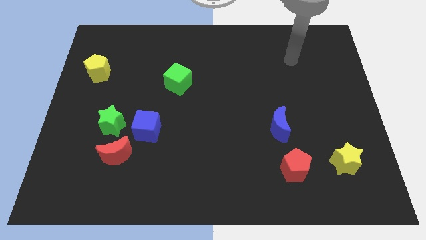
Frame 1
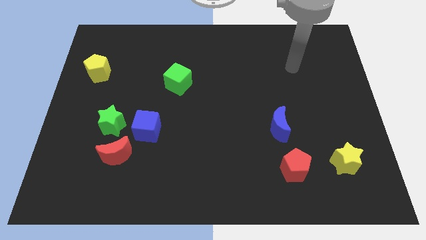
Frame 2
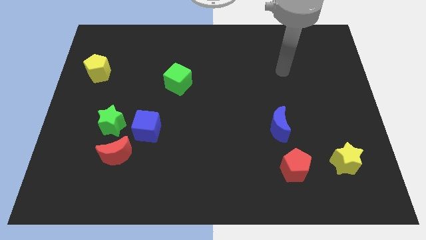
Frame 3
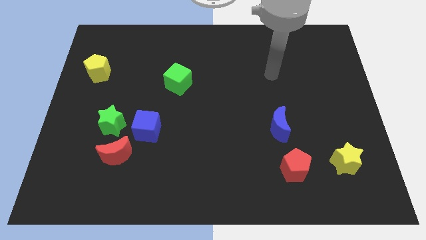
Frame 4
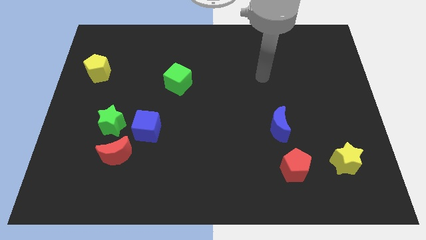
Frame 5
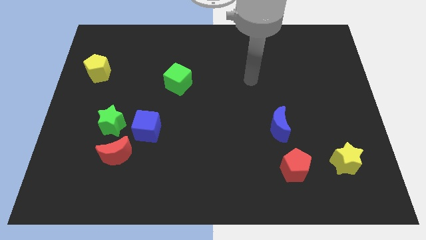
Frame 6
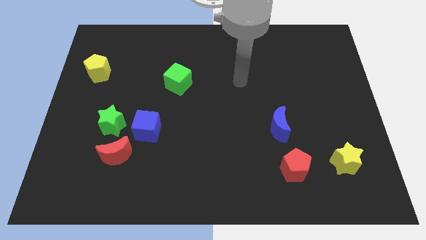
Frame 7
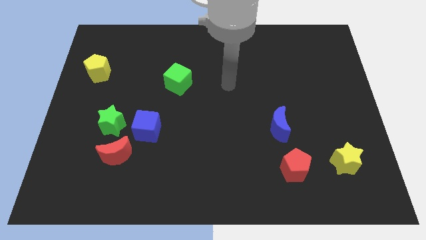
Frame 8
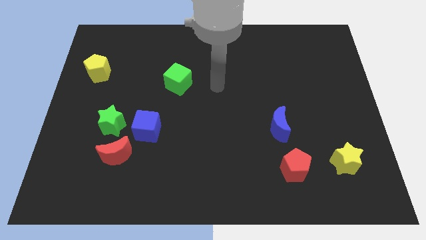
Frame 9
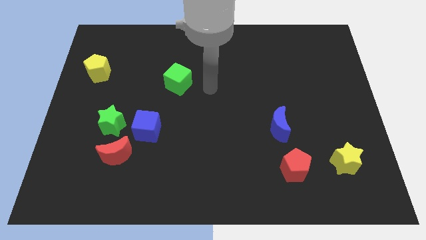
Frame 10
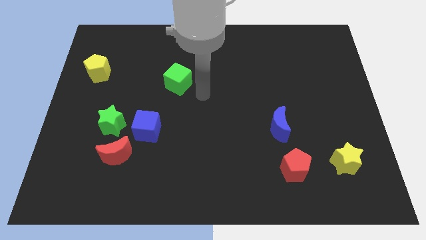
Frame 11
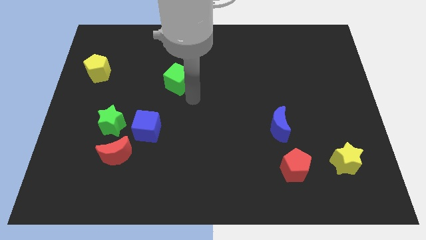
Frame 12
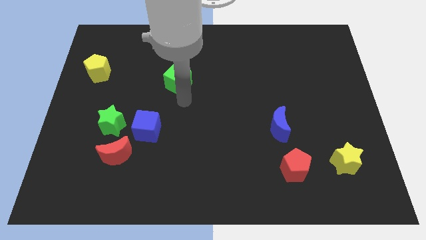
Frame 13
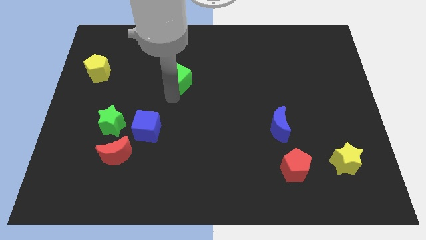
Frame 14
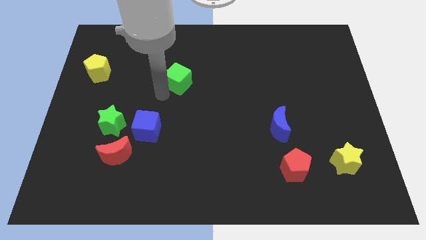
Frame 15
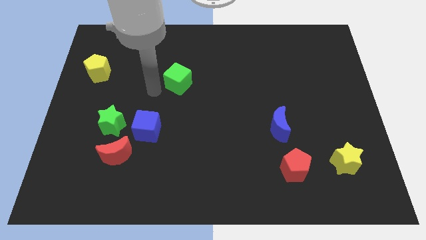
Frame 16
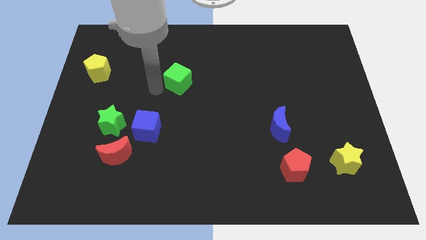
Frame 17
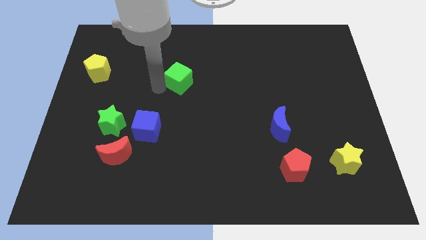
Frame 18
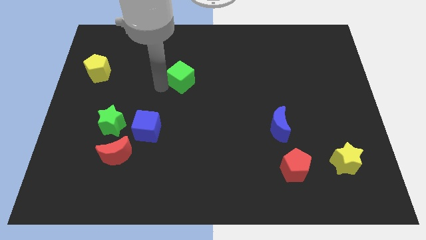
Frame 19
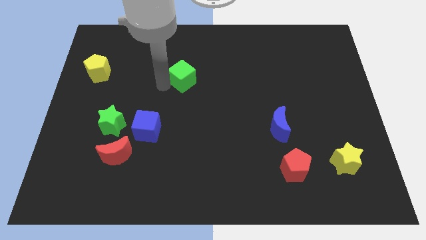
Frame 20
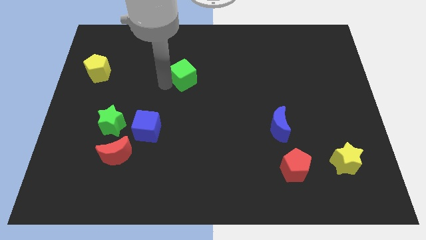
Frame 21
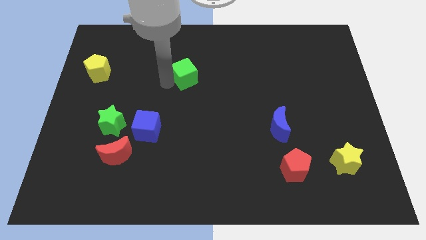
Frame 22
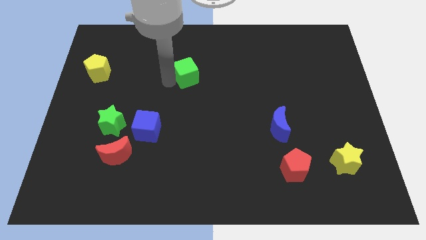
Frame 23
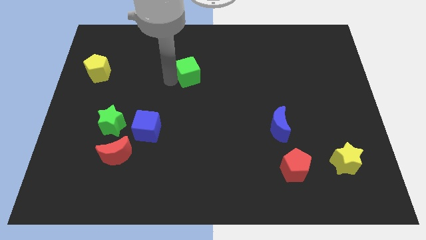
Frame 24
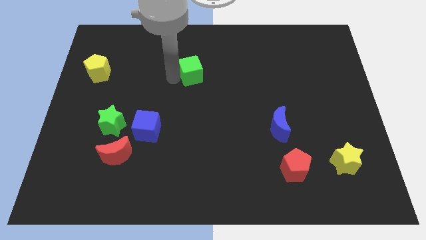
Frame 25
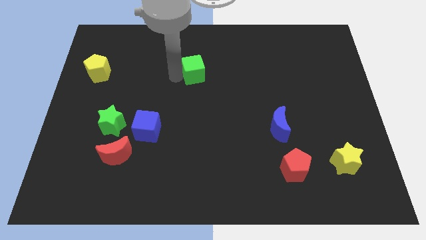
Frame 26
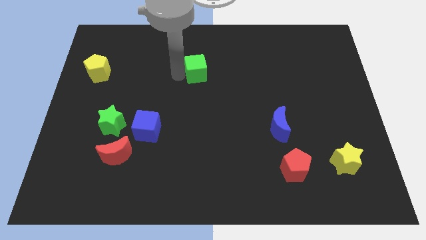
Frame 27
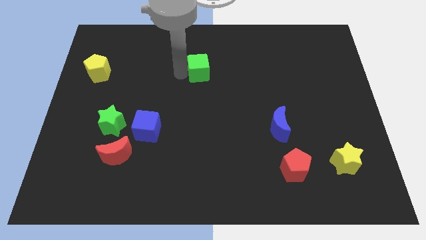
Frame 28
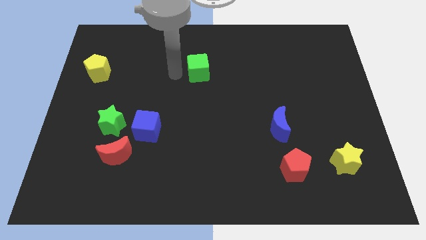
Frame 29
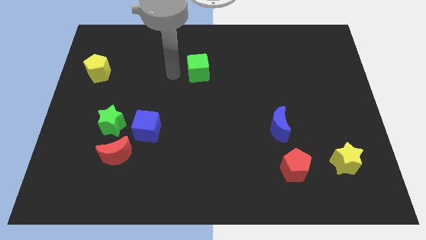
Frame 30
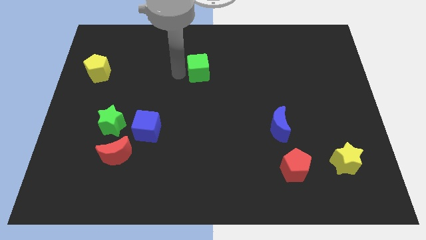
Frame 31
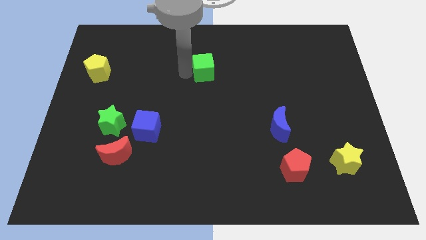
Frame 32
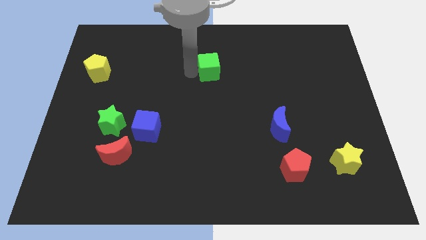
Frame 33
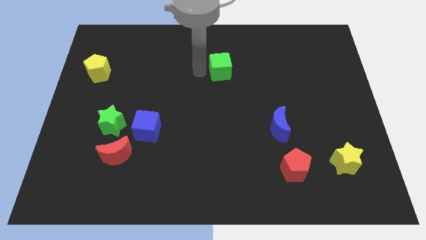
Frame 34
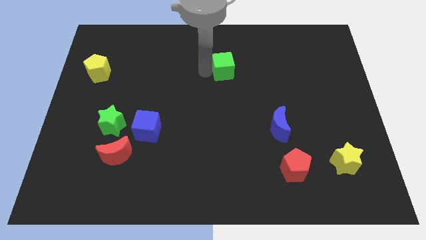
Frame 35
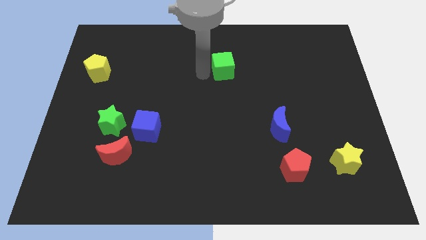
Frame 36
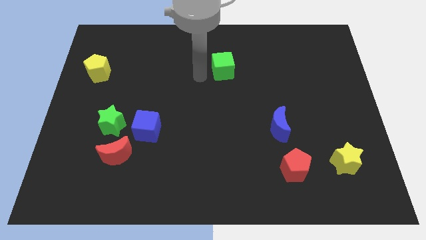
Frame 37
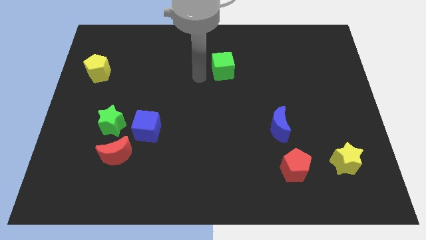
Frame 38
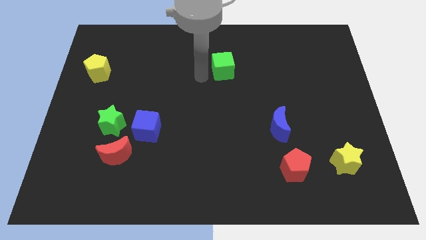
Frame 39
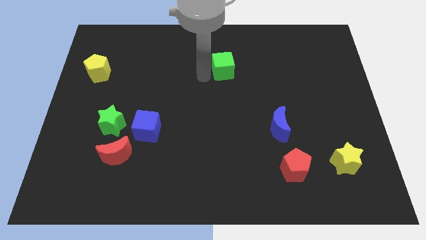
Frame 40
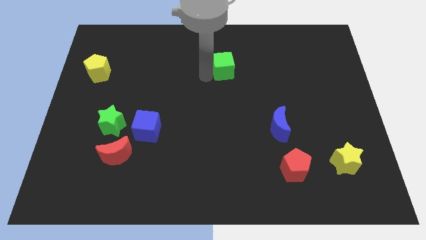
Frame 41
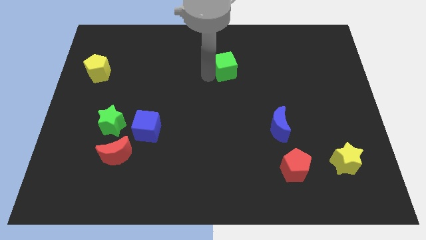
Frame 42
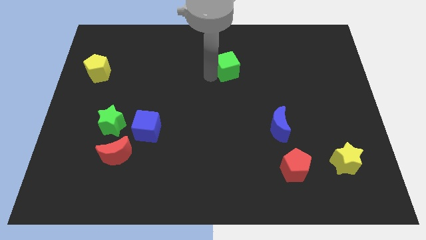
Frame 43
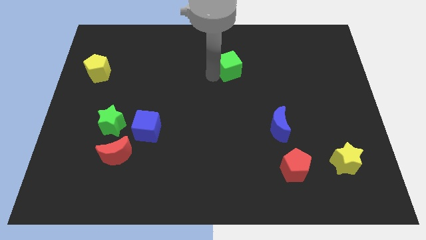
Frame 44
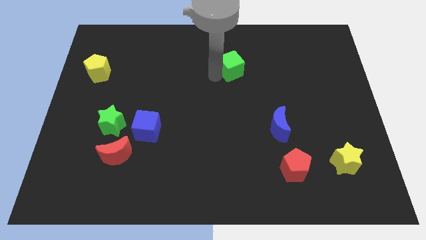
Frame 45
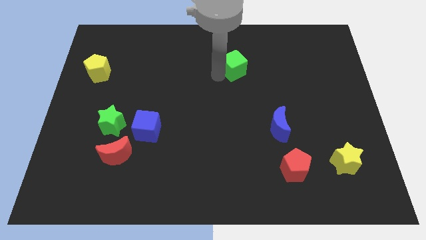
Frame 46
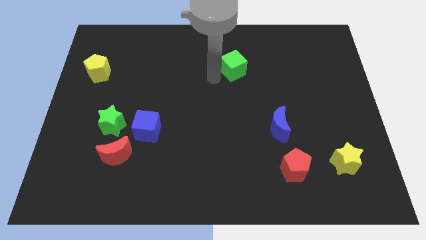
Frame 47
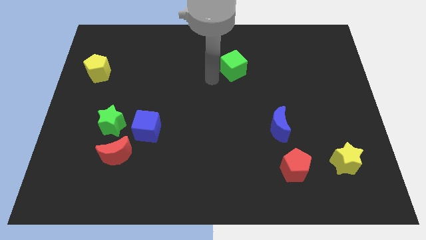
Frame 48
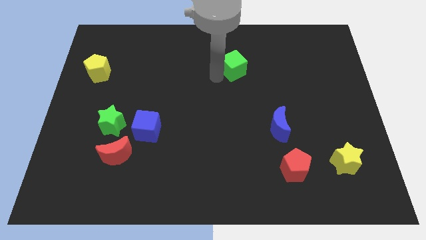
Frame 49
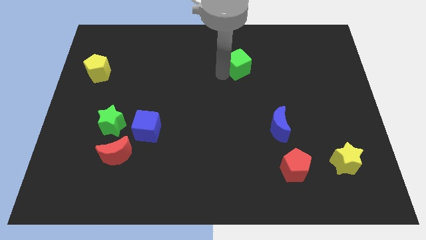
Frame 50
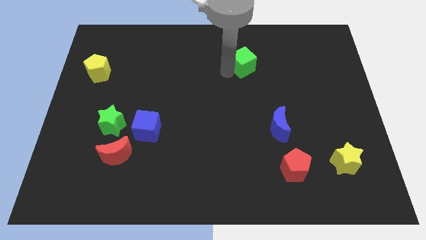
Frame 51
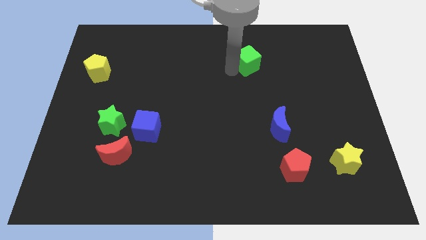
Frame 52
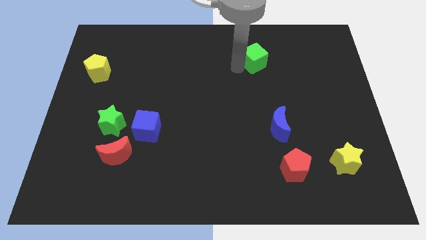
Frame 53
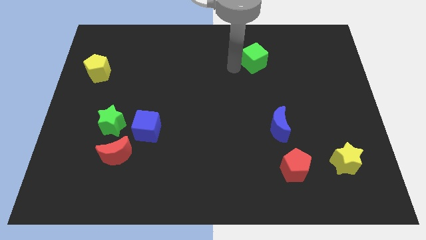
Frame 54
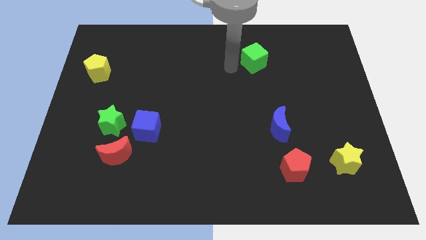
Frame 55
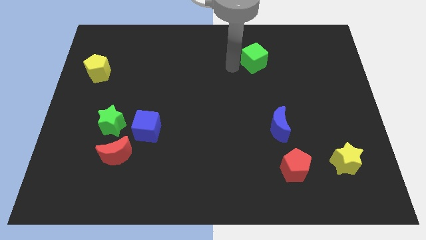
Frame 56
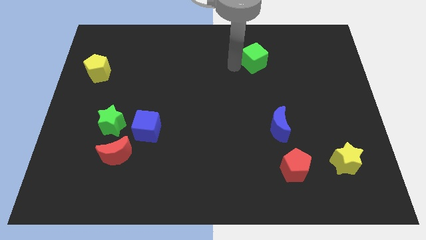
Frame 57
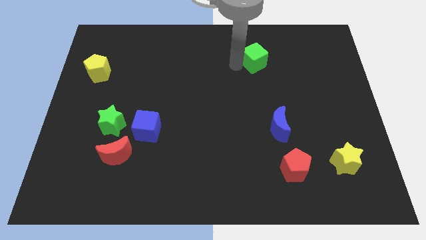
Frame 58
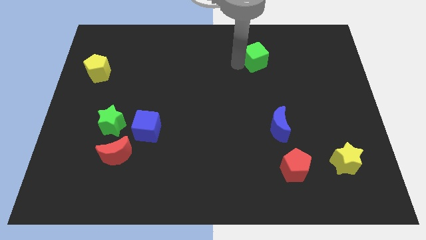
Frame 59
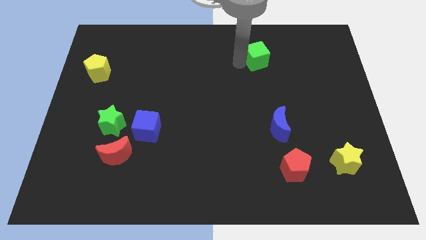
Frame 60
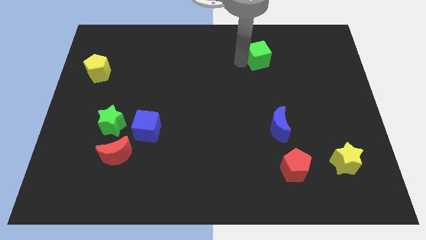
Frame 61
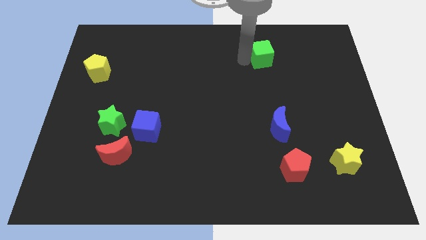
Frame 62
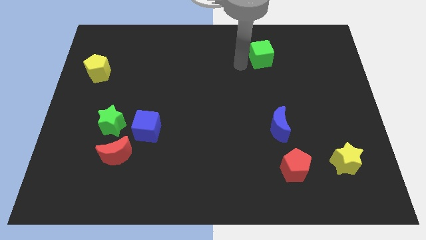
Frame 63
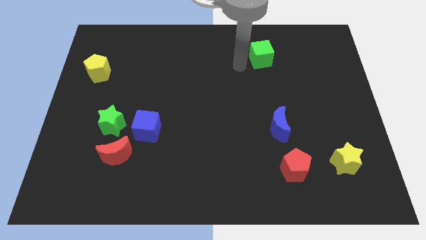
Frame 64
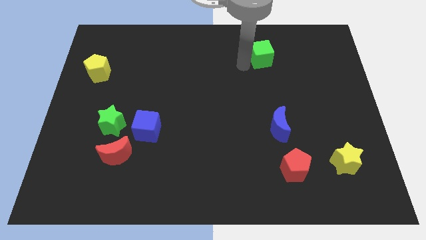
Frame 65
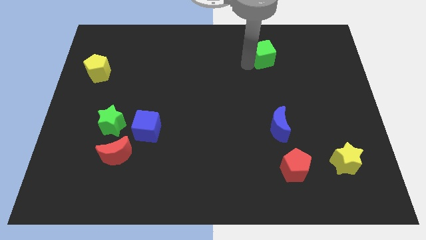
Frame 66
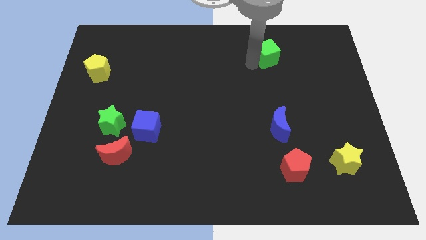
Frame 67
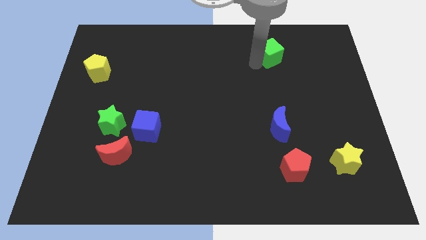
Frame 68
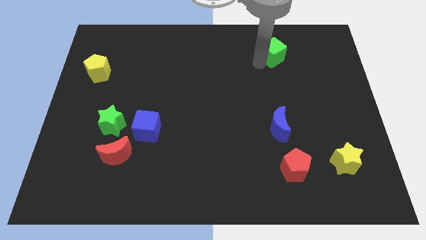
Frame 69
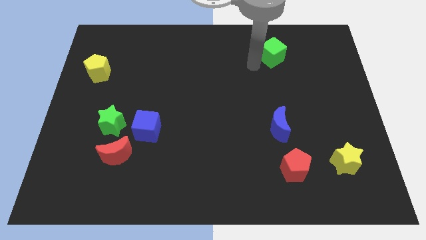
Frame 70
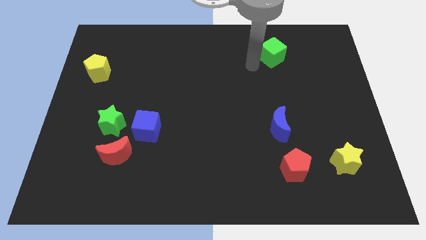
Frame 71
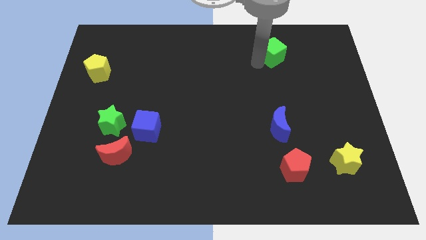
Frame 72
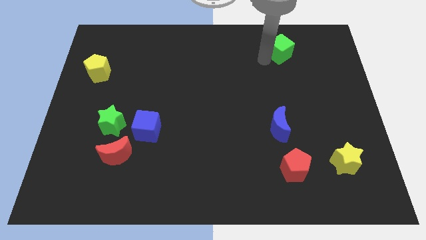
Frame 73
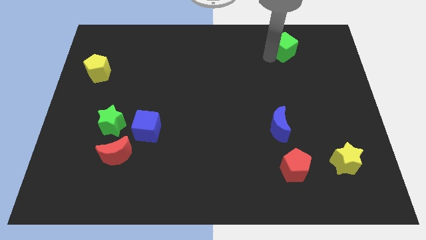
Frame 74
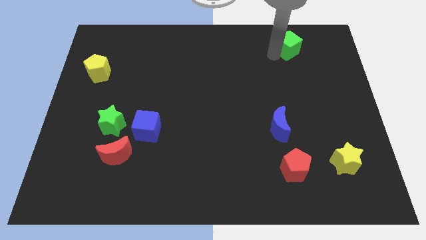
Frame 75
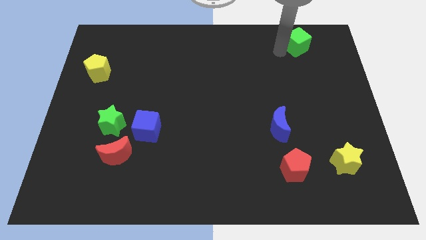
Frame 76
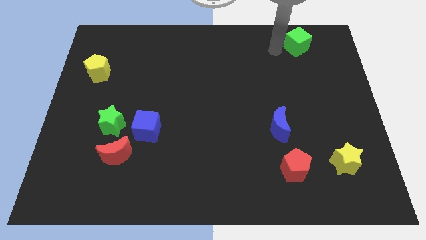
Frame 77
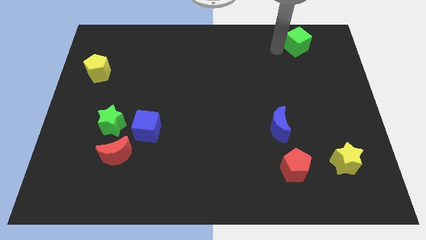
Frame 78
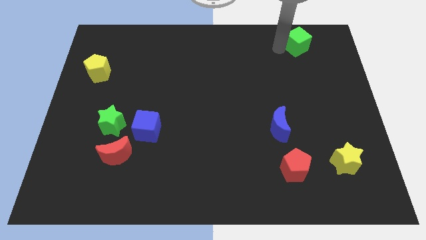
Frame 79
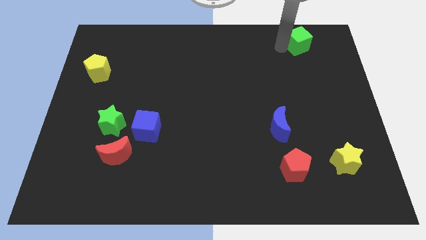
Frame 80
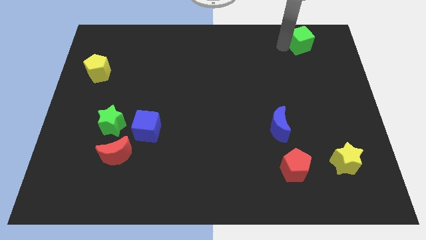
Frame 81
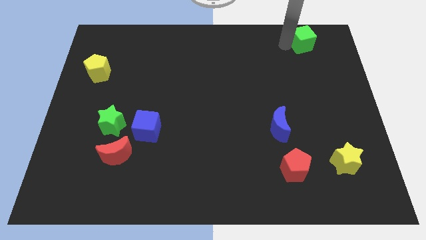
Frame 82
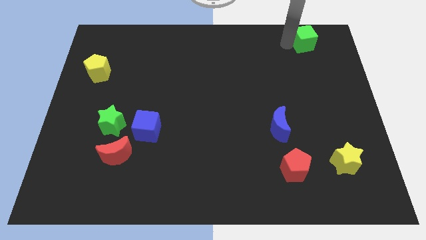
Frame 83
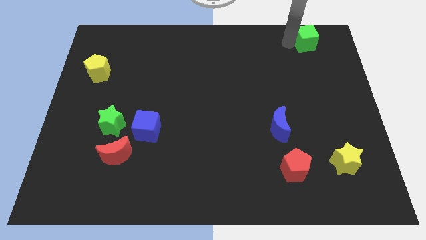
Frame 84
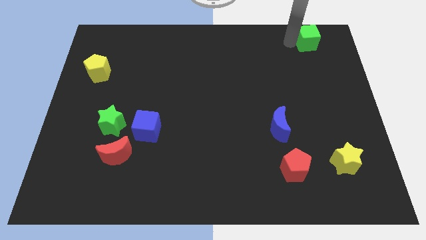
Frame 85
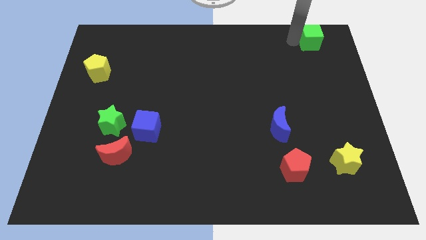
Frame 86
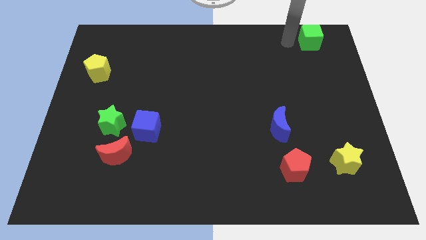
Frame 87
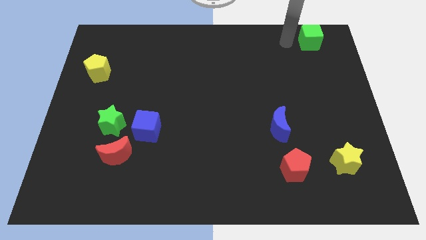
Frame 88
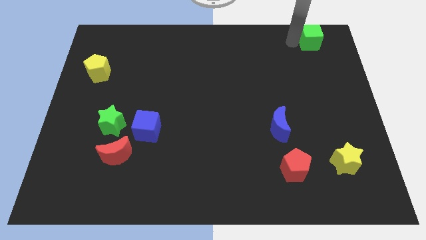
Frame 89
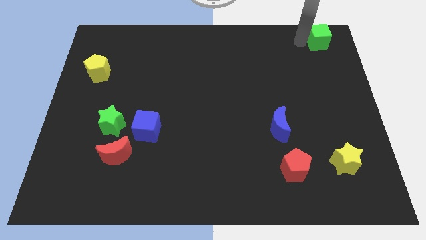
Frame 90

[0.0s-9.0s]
move the green cube to the top right corner
